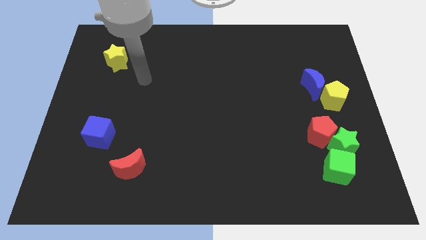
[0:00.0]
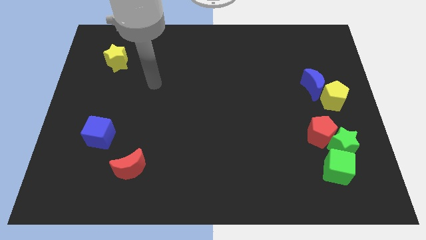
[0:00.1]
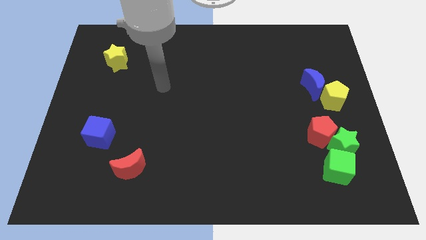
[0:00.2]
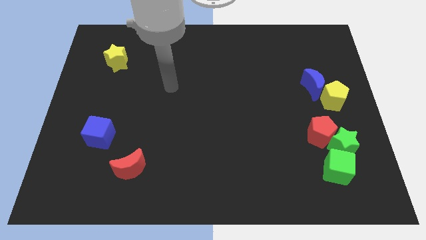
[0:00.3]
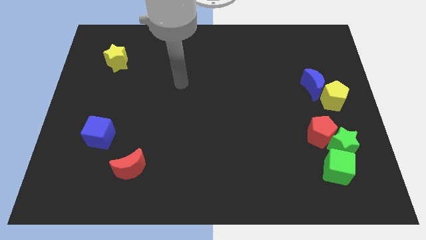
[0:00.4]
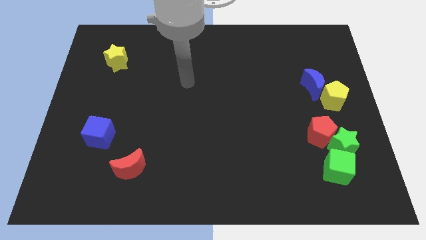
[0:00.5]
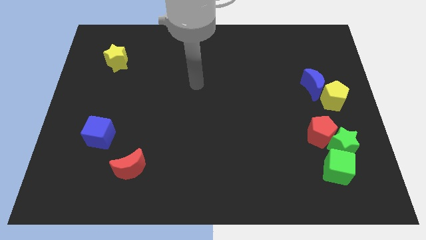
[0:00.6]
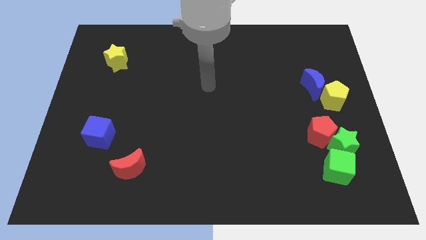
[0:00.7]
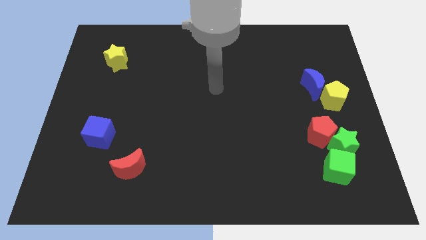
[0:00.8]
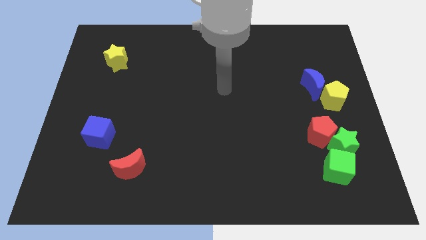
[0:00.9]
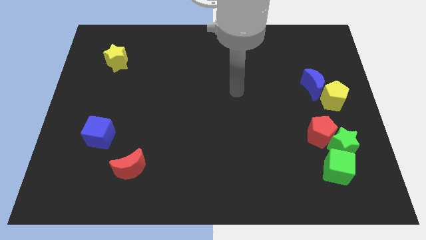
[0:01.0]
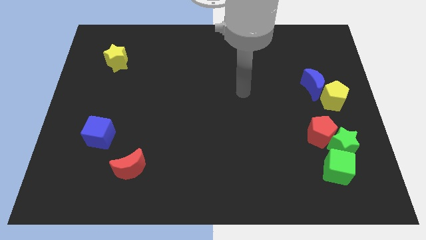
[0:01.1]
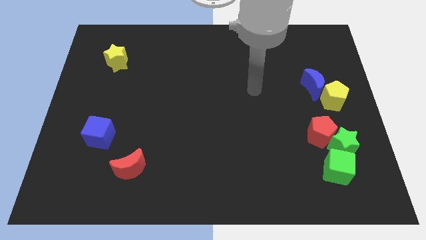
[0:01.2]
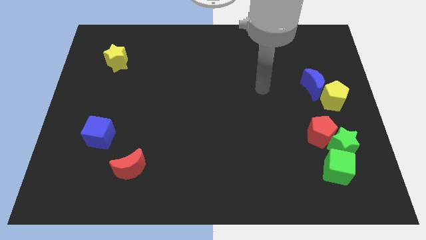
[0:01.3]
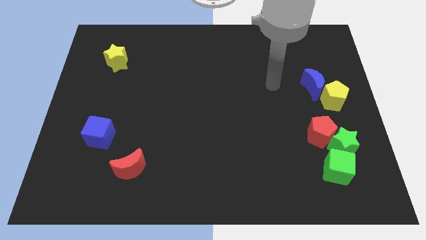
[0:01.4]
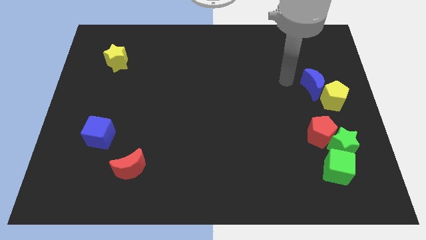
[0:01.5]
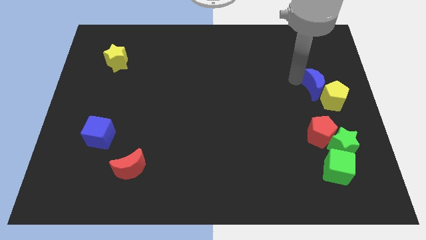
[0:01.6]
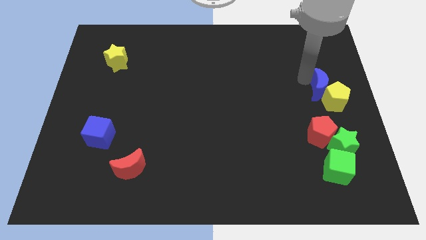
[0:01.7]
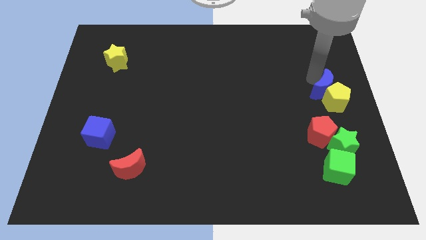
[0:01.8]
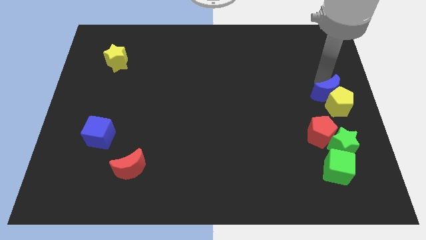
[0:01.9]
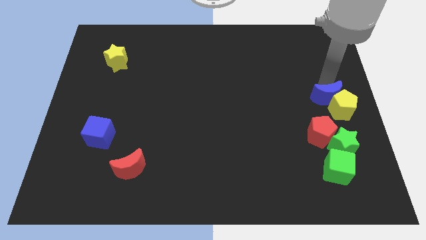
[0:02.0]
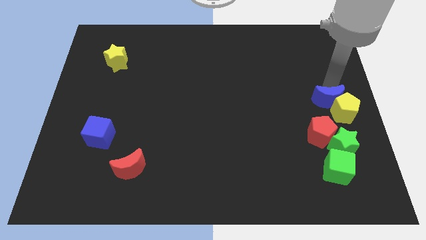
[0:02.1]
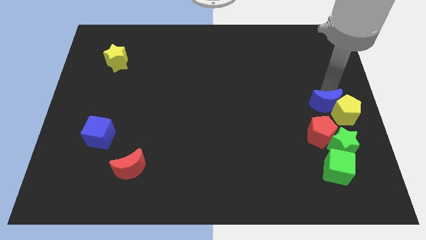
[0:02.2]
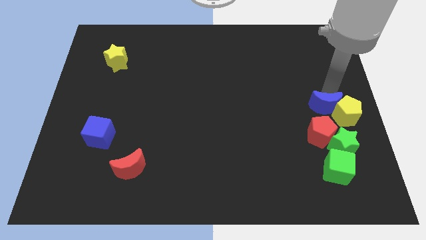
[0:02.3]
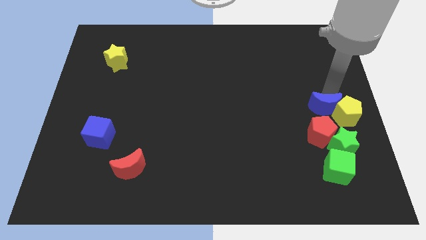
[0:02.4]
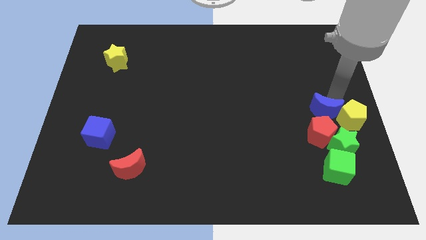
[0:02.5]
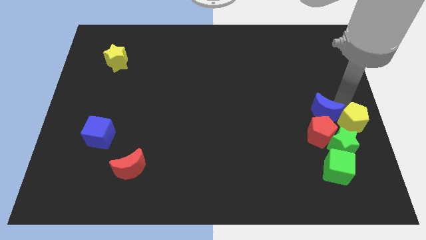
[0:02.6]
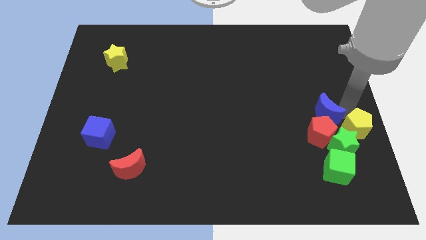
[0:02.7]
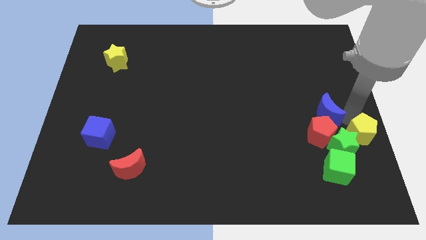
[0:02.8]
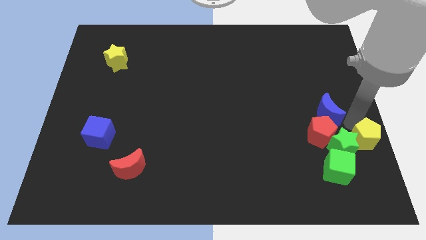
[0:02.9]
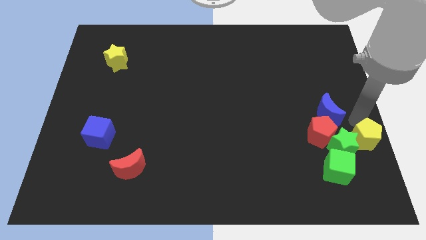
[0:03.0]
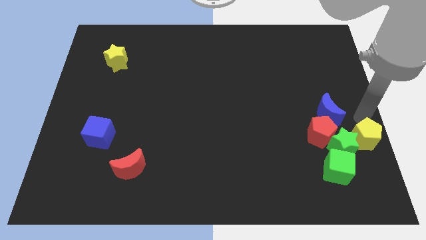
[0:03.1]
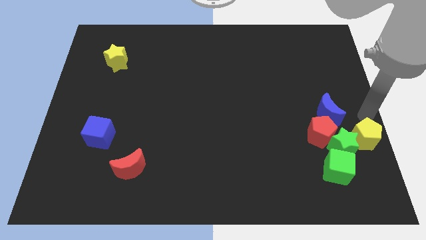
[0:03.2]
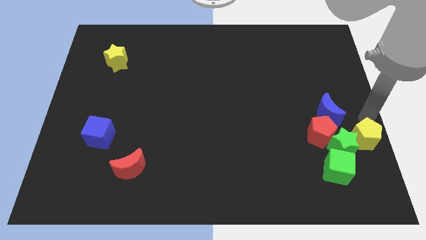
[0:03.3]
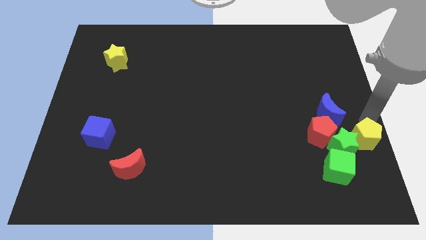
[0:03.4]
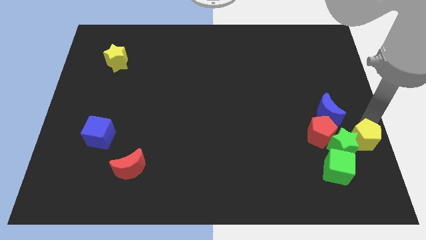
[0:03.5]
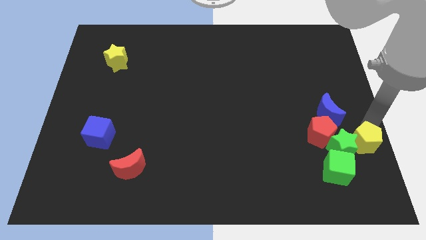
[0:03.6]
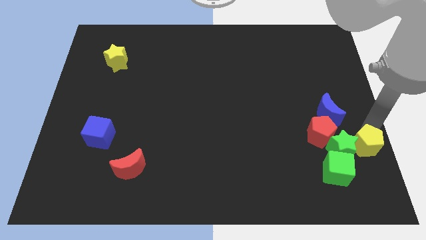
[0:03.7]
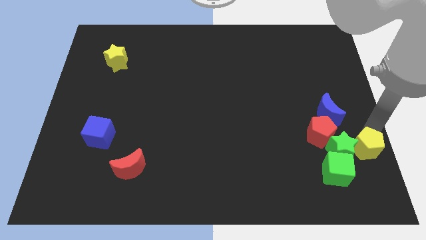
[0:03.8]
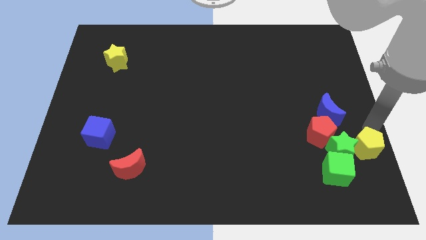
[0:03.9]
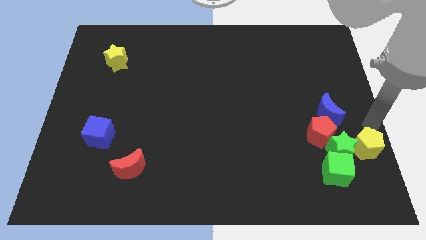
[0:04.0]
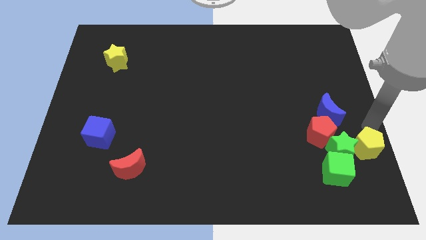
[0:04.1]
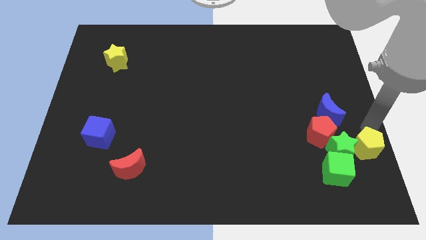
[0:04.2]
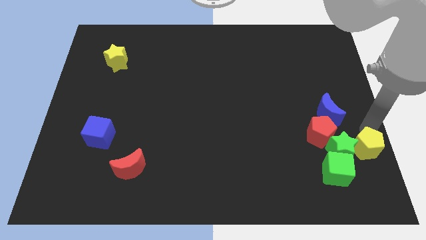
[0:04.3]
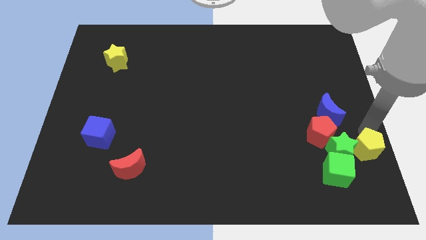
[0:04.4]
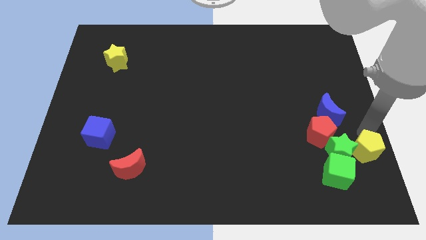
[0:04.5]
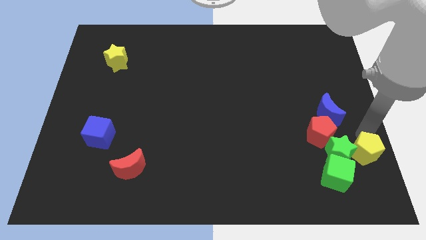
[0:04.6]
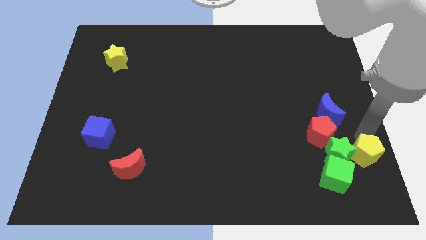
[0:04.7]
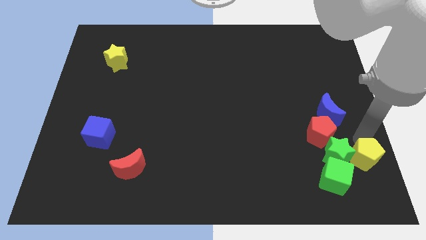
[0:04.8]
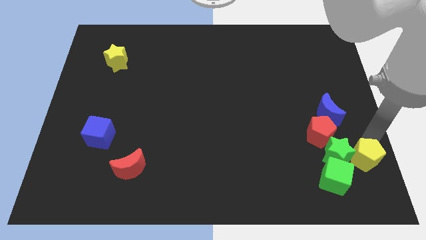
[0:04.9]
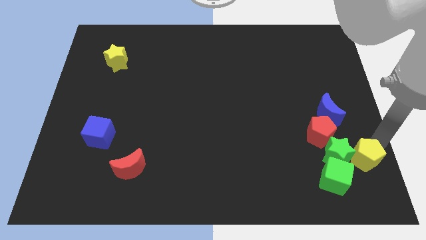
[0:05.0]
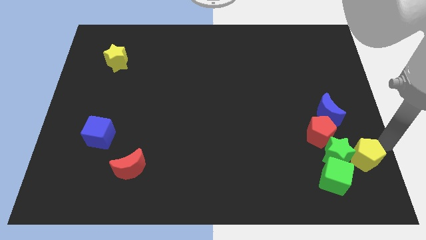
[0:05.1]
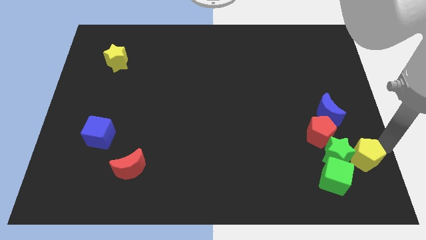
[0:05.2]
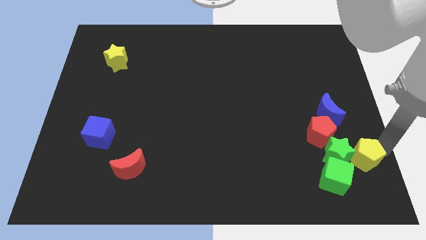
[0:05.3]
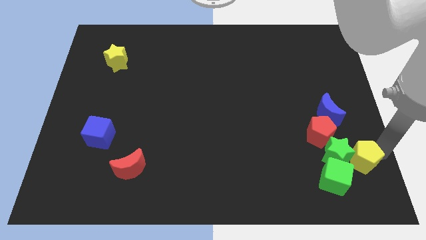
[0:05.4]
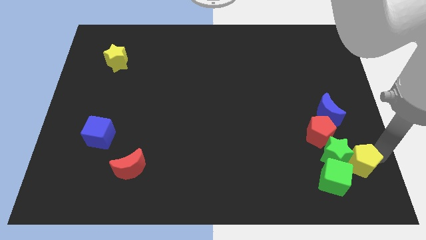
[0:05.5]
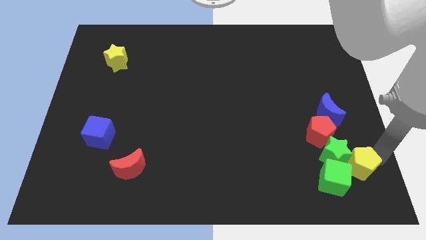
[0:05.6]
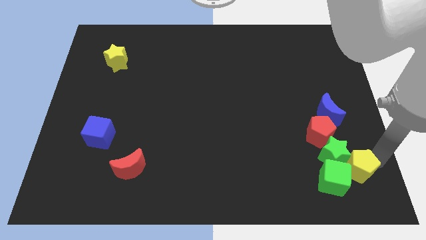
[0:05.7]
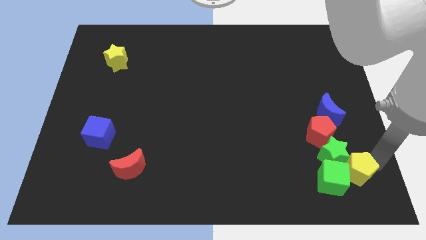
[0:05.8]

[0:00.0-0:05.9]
put the yellow pentagon towards the green cube

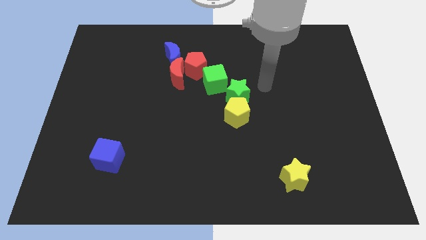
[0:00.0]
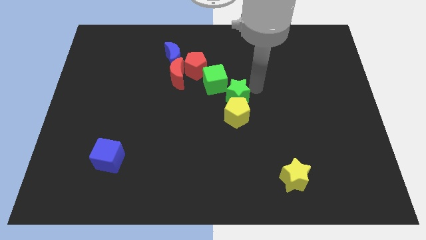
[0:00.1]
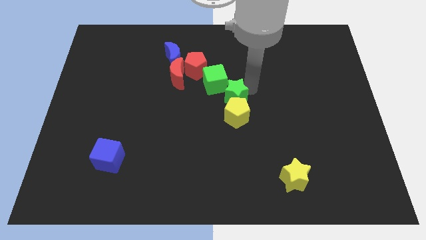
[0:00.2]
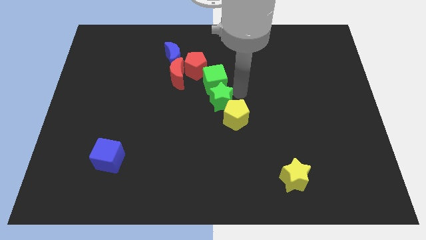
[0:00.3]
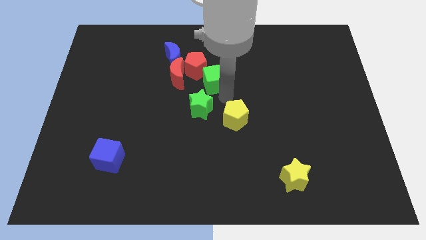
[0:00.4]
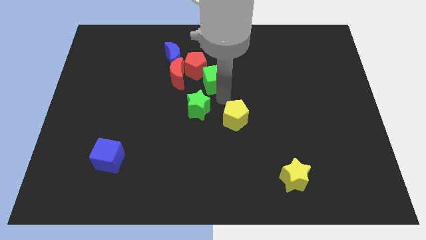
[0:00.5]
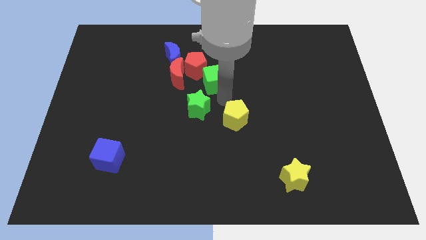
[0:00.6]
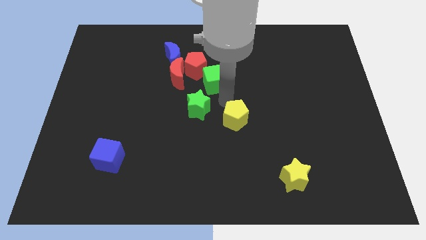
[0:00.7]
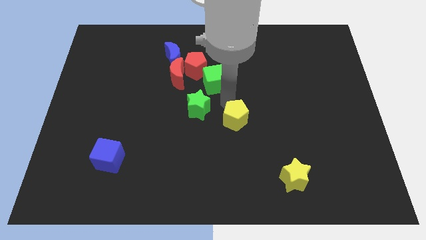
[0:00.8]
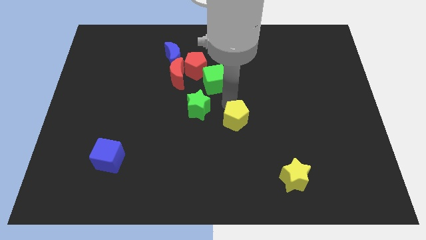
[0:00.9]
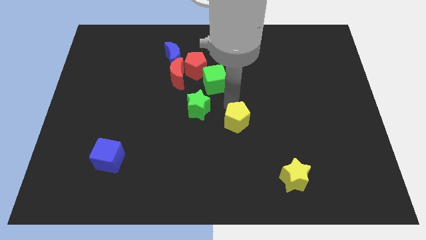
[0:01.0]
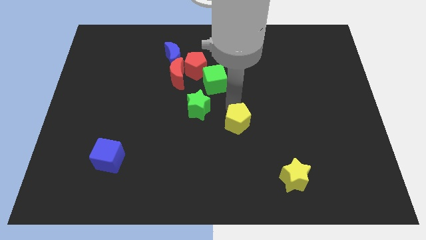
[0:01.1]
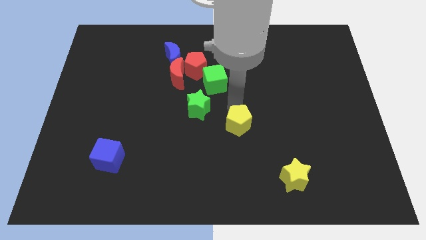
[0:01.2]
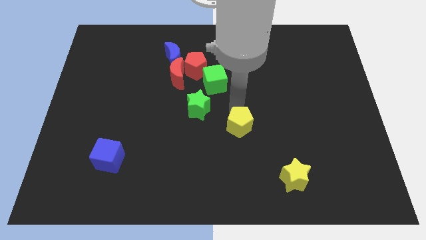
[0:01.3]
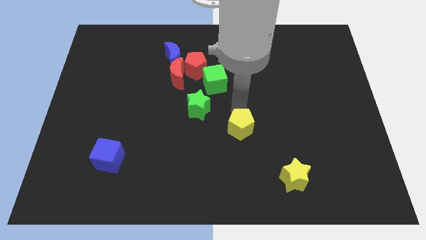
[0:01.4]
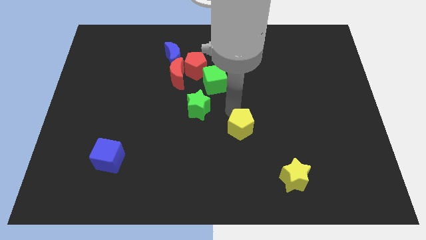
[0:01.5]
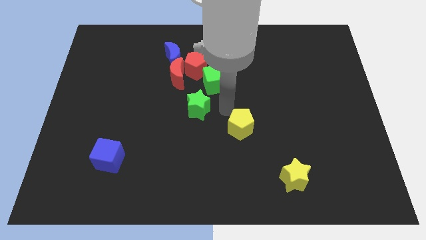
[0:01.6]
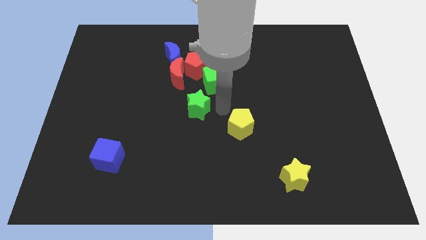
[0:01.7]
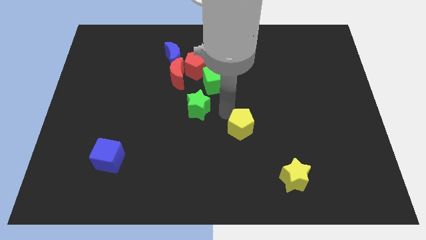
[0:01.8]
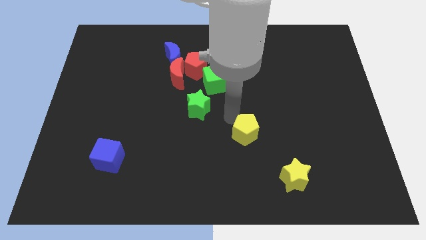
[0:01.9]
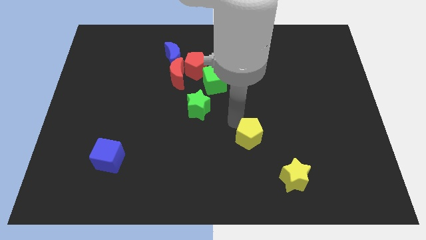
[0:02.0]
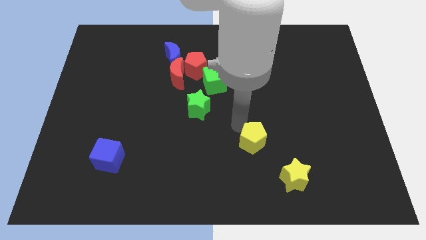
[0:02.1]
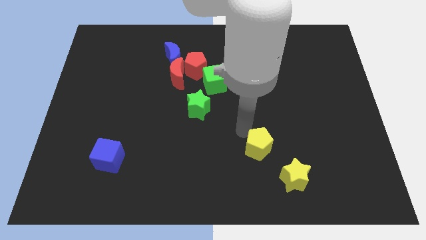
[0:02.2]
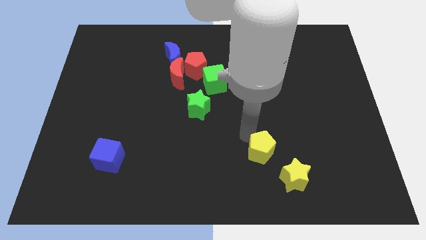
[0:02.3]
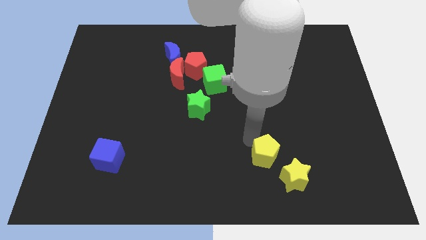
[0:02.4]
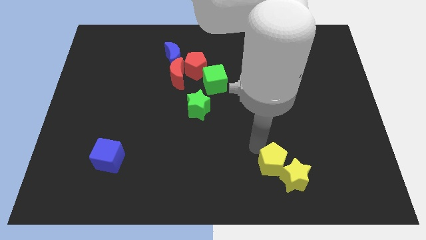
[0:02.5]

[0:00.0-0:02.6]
put the yellow pentagon towards the yellow star
